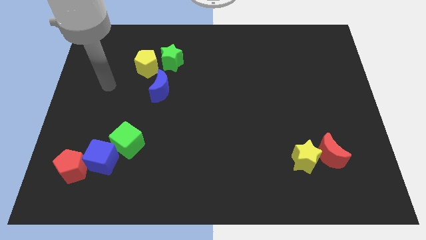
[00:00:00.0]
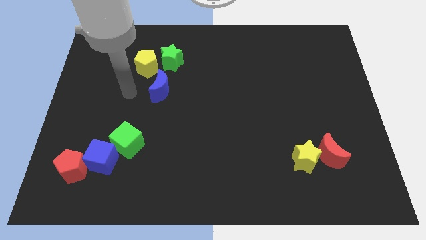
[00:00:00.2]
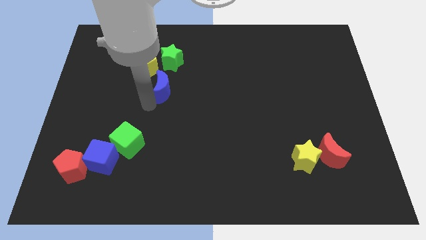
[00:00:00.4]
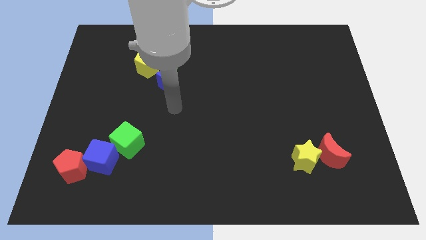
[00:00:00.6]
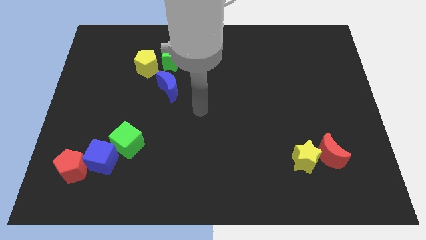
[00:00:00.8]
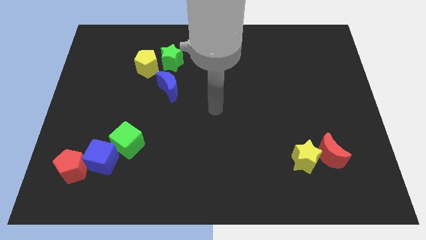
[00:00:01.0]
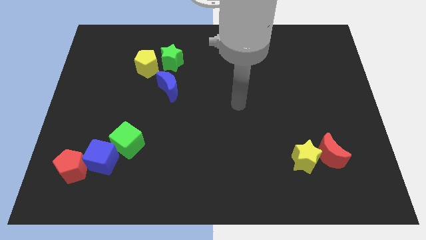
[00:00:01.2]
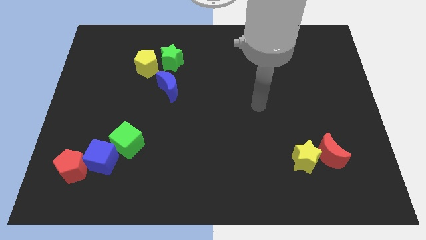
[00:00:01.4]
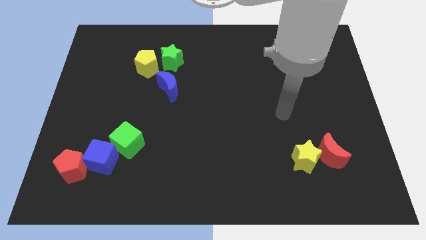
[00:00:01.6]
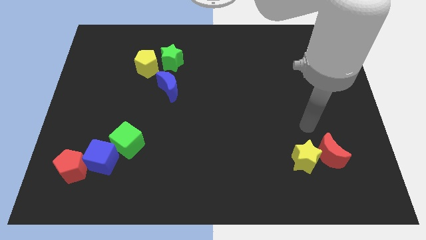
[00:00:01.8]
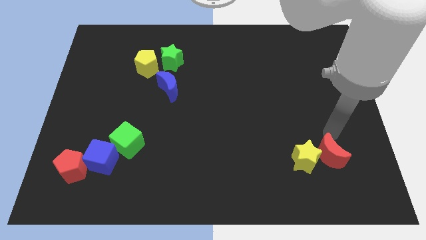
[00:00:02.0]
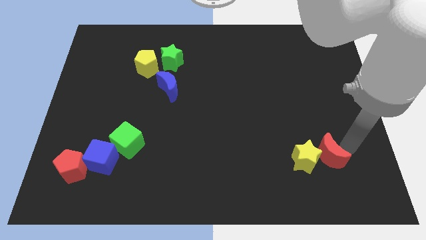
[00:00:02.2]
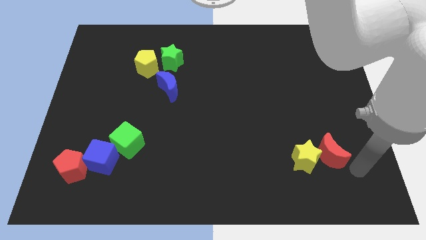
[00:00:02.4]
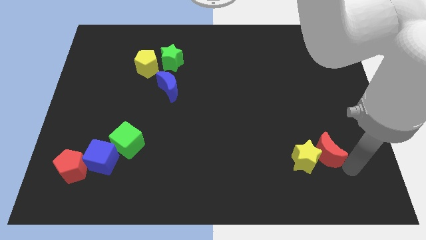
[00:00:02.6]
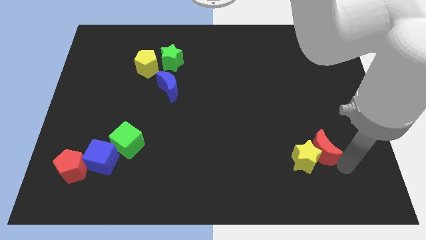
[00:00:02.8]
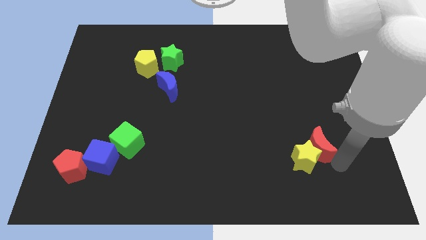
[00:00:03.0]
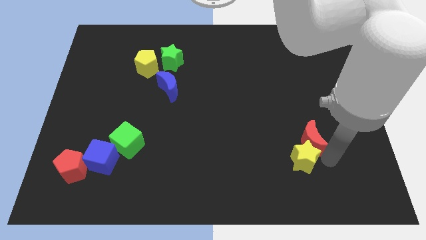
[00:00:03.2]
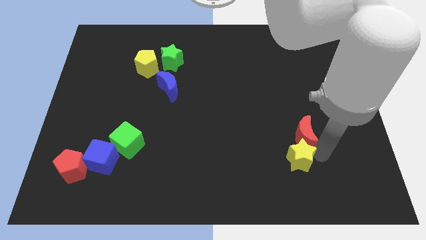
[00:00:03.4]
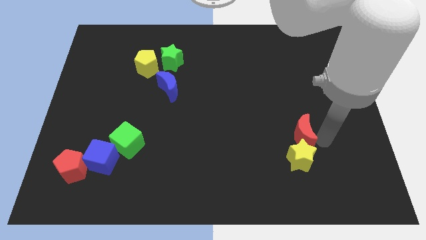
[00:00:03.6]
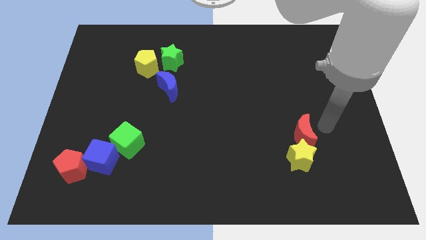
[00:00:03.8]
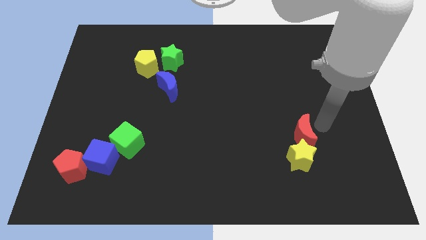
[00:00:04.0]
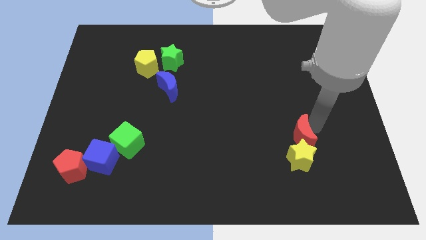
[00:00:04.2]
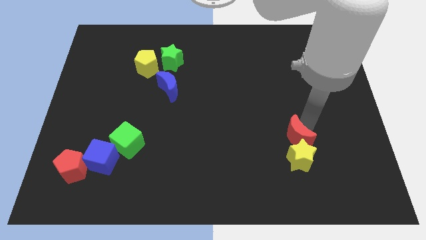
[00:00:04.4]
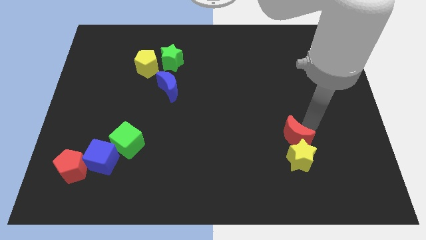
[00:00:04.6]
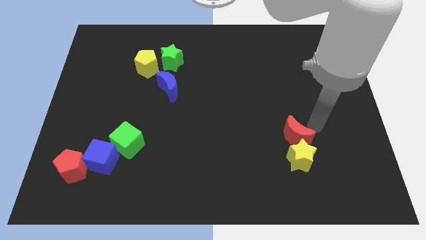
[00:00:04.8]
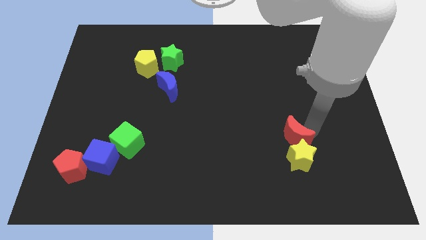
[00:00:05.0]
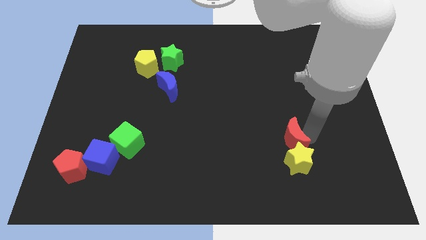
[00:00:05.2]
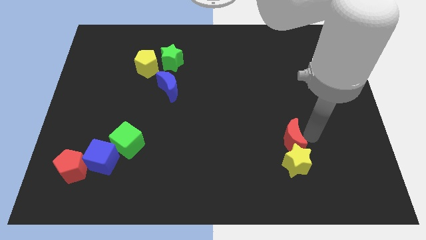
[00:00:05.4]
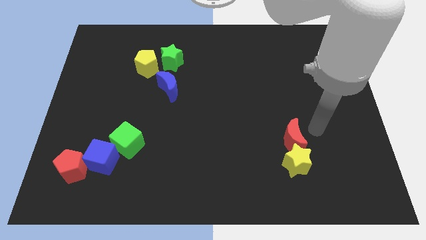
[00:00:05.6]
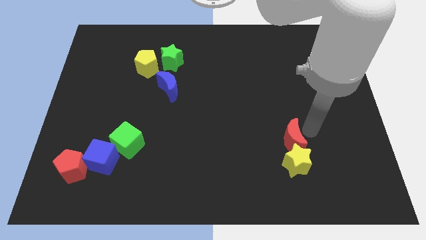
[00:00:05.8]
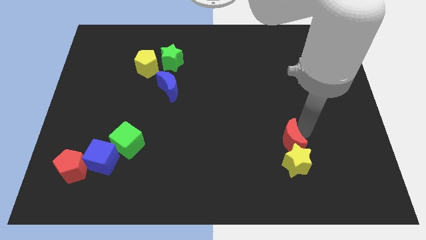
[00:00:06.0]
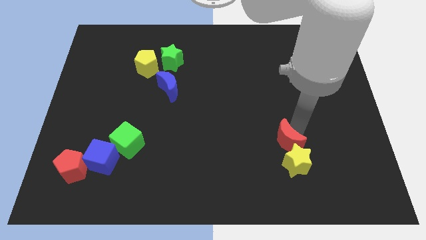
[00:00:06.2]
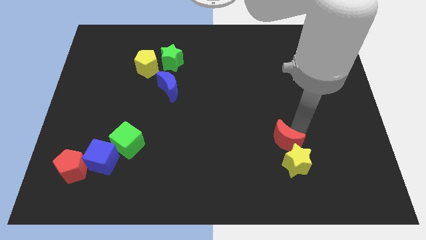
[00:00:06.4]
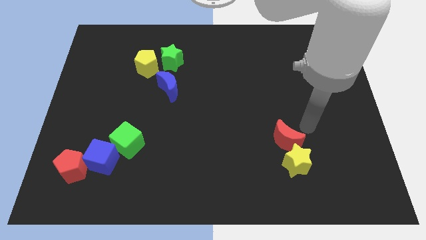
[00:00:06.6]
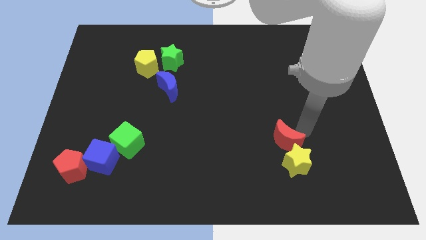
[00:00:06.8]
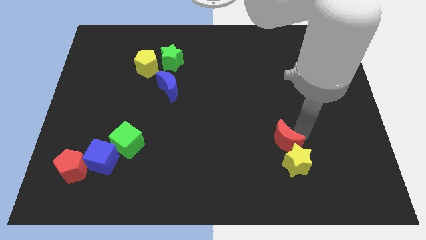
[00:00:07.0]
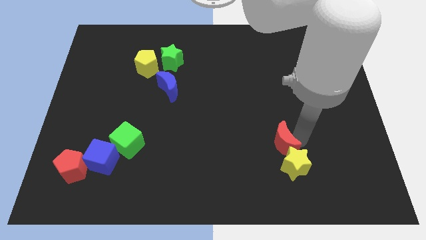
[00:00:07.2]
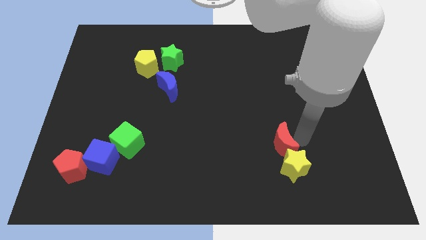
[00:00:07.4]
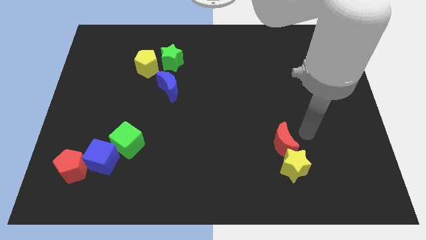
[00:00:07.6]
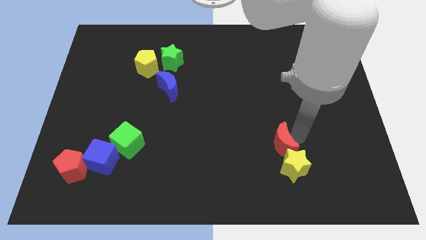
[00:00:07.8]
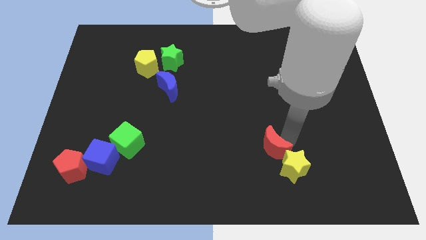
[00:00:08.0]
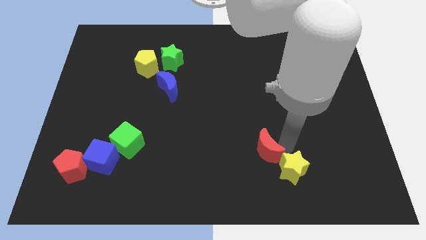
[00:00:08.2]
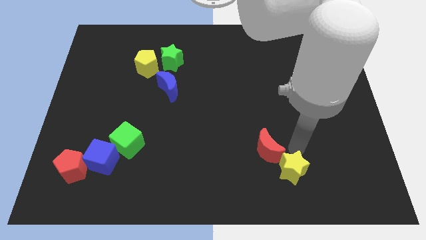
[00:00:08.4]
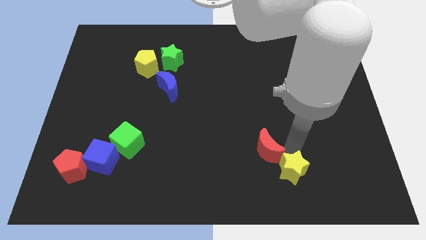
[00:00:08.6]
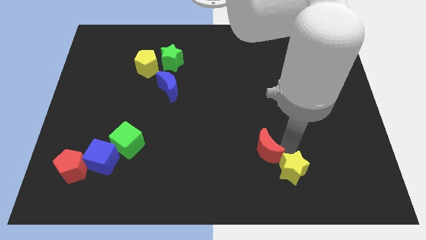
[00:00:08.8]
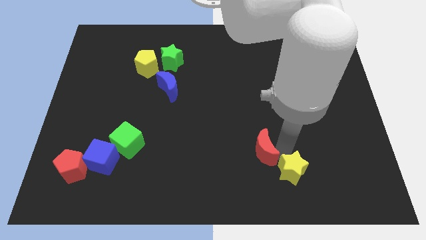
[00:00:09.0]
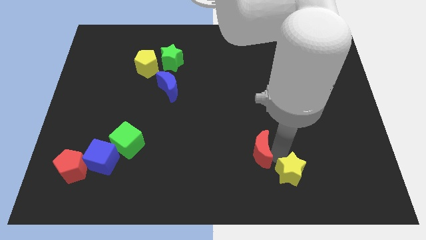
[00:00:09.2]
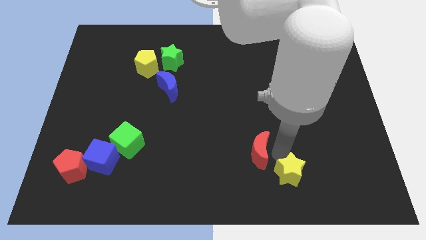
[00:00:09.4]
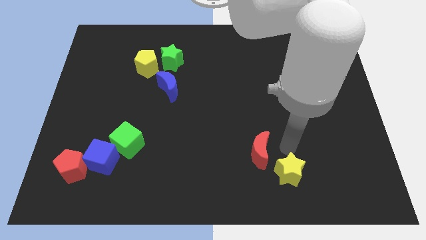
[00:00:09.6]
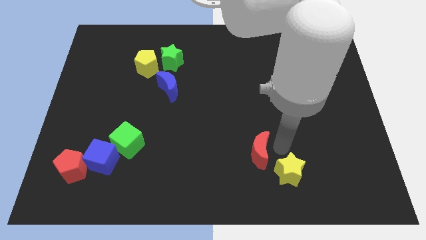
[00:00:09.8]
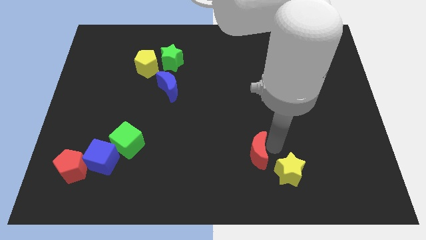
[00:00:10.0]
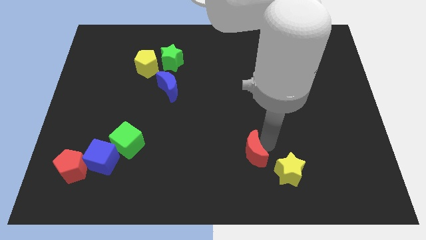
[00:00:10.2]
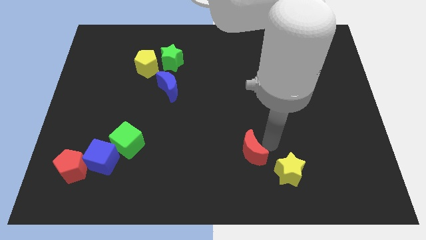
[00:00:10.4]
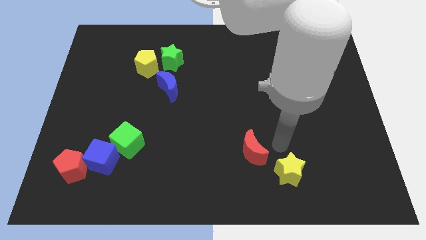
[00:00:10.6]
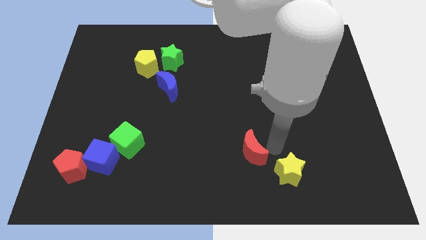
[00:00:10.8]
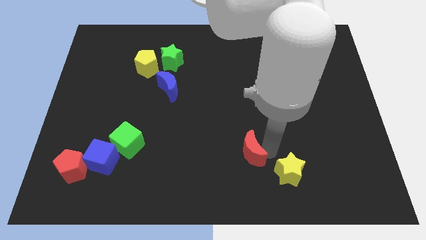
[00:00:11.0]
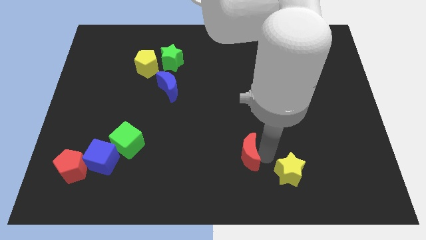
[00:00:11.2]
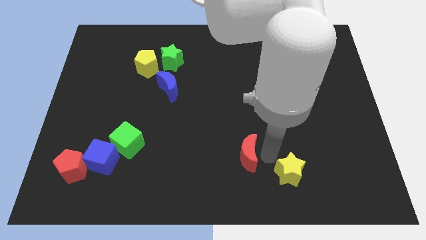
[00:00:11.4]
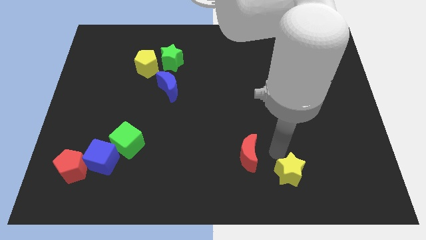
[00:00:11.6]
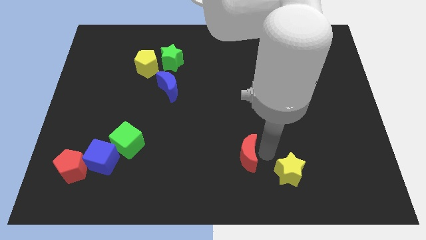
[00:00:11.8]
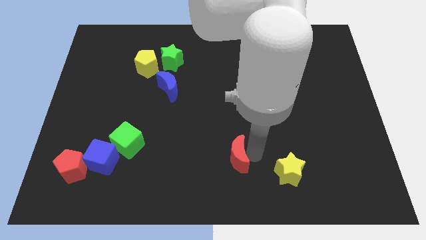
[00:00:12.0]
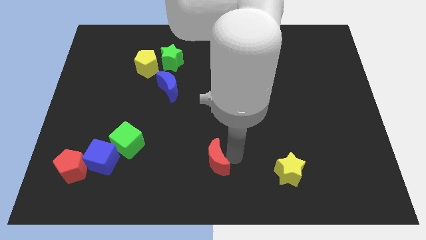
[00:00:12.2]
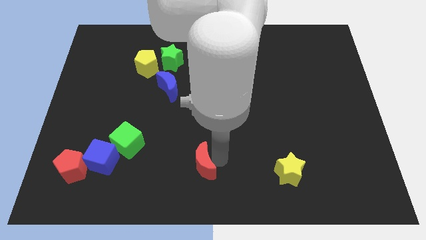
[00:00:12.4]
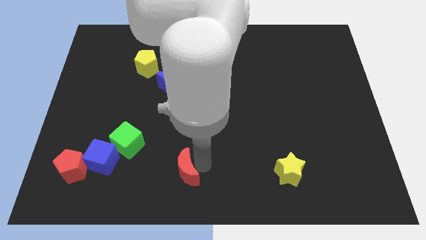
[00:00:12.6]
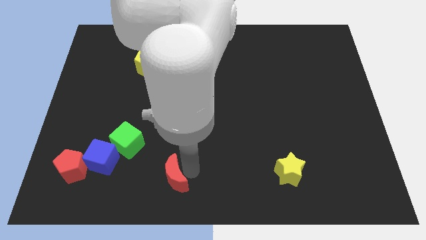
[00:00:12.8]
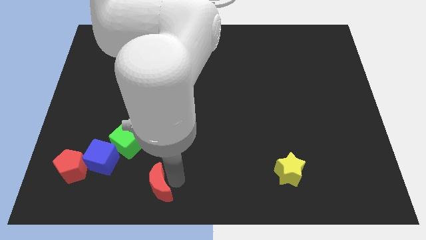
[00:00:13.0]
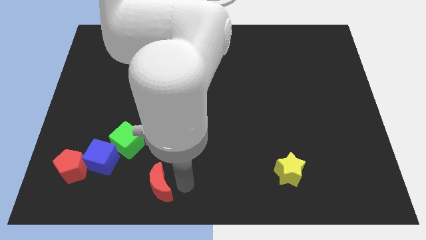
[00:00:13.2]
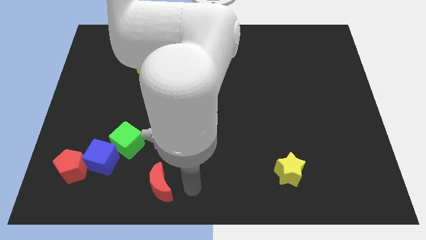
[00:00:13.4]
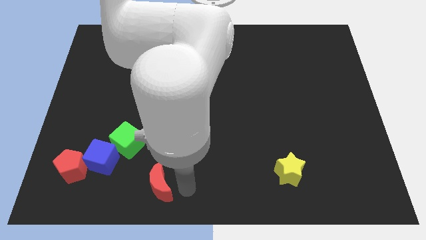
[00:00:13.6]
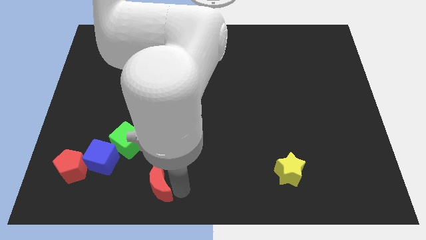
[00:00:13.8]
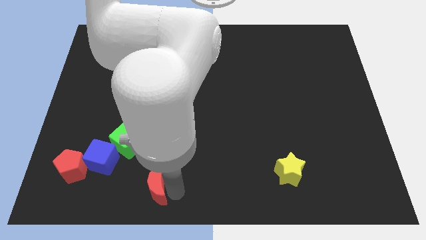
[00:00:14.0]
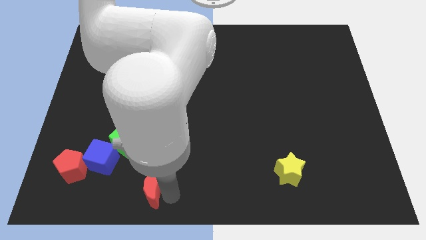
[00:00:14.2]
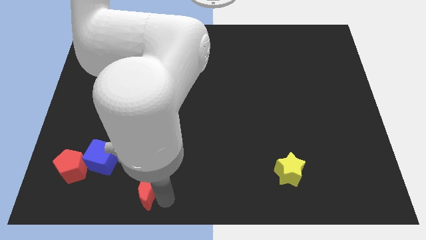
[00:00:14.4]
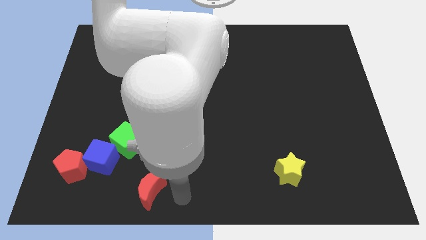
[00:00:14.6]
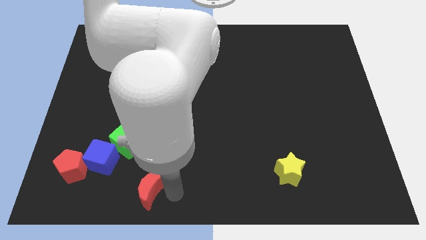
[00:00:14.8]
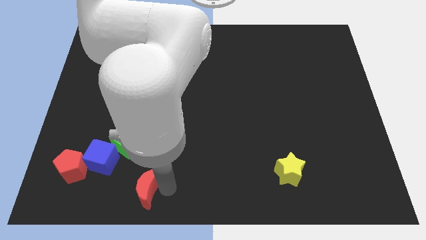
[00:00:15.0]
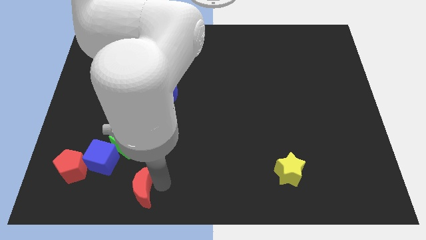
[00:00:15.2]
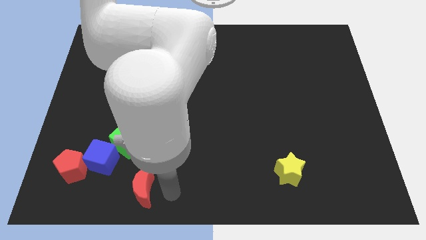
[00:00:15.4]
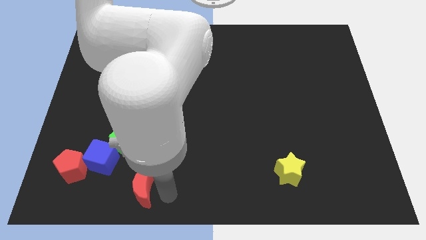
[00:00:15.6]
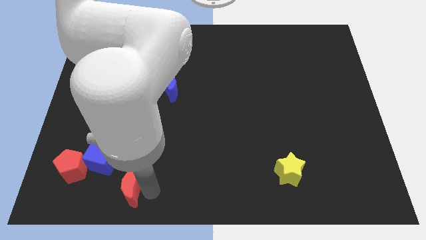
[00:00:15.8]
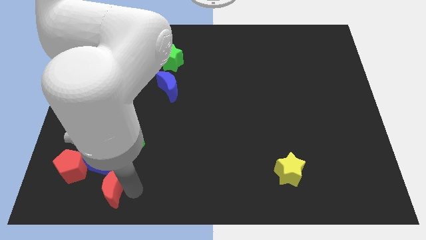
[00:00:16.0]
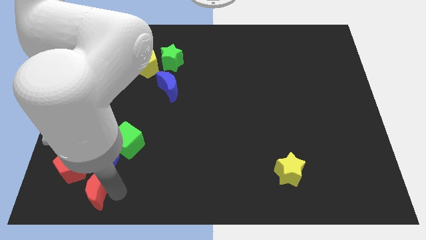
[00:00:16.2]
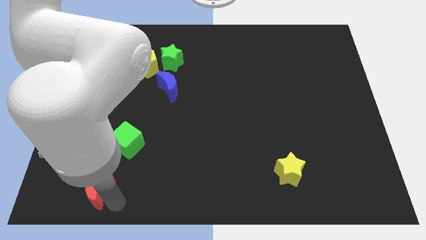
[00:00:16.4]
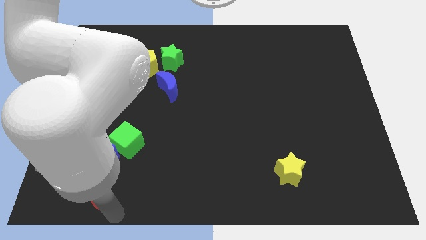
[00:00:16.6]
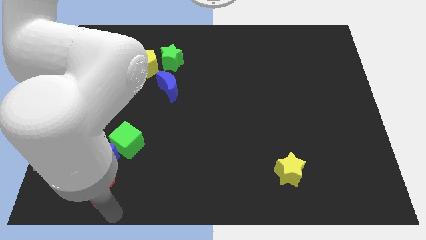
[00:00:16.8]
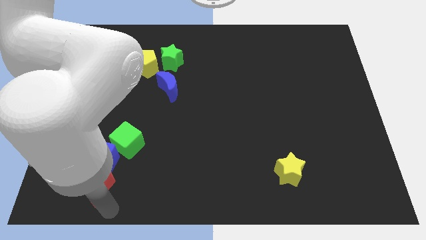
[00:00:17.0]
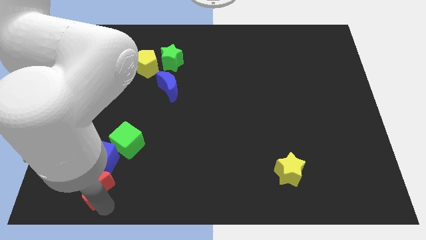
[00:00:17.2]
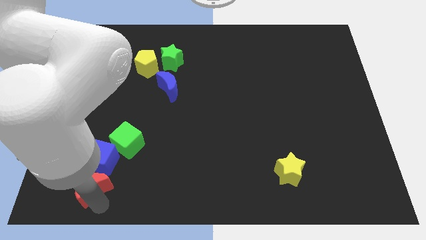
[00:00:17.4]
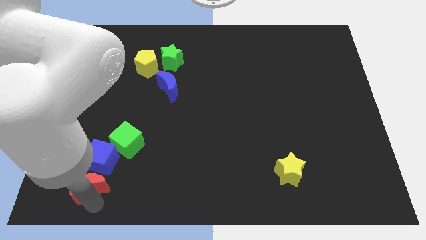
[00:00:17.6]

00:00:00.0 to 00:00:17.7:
slide the red moon next to the red pentagon
